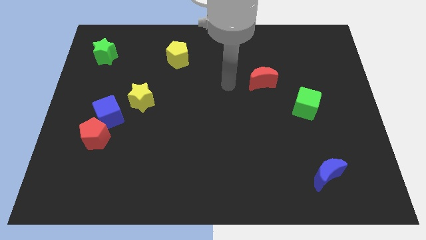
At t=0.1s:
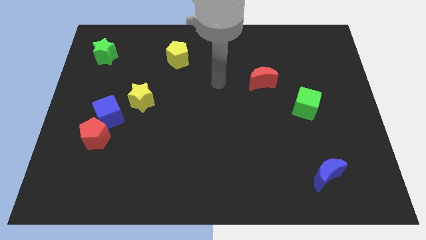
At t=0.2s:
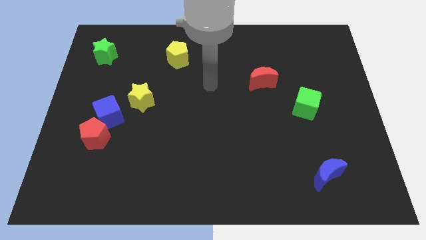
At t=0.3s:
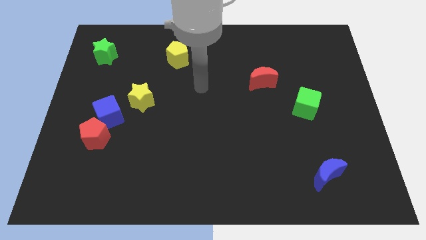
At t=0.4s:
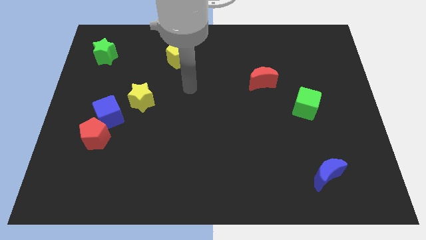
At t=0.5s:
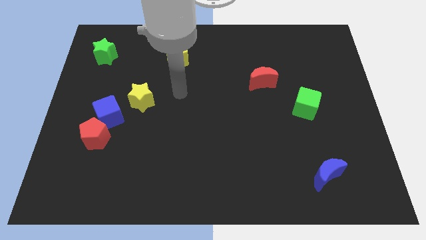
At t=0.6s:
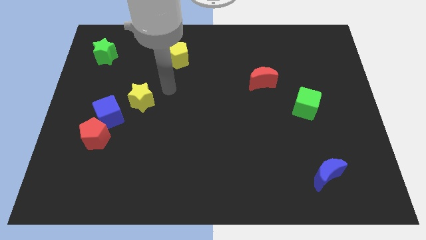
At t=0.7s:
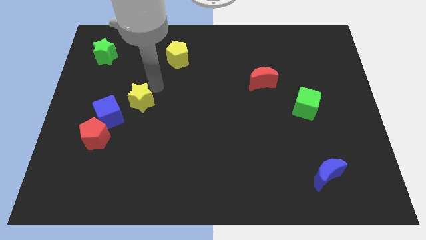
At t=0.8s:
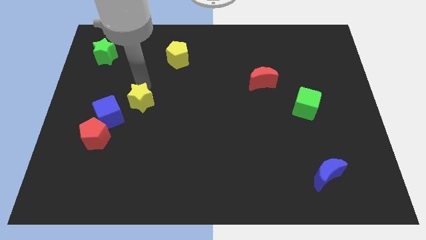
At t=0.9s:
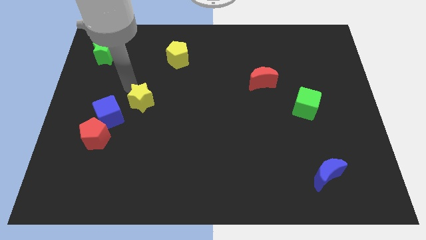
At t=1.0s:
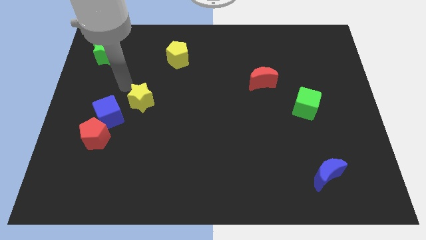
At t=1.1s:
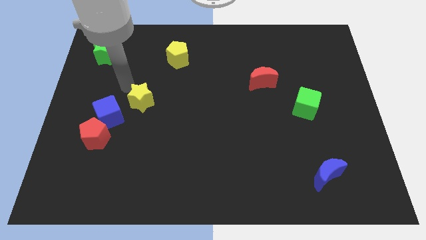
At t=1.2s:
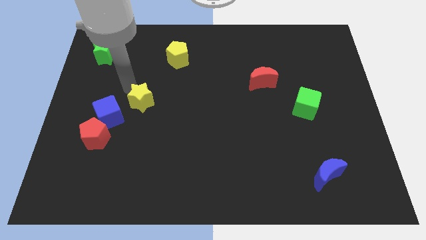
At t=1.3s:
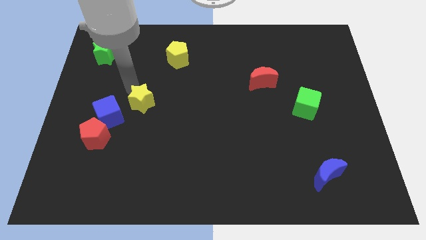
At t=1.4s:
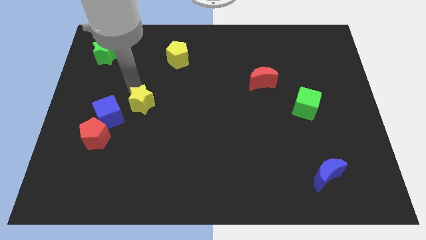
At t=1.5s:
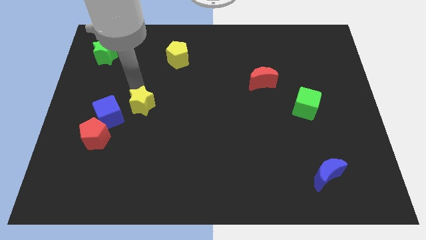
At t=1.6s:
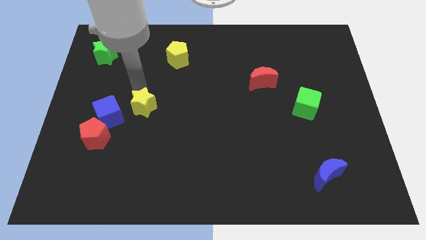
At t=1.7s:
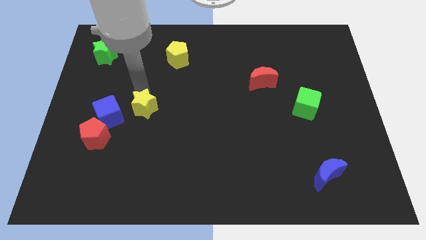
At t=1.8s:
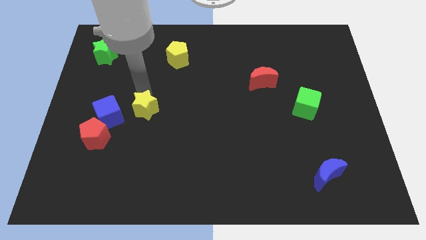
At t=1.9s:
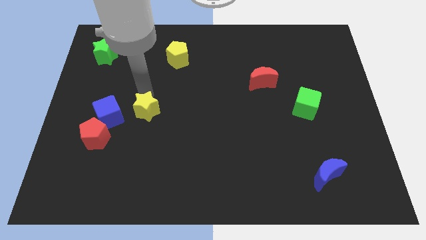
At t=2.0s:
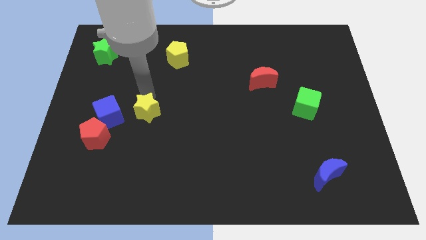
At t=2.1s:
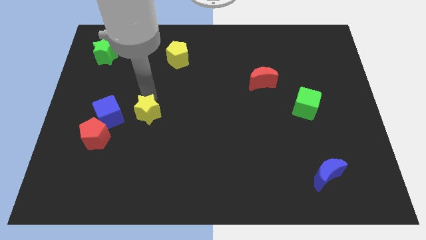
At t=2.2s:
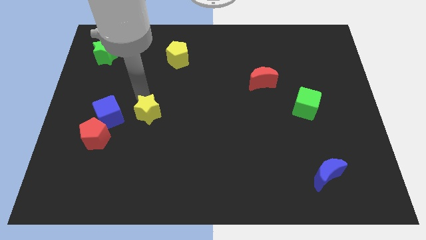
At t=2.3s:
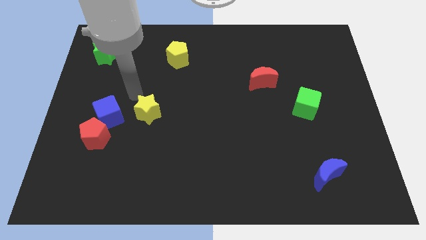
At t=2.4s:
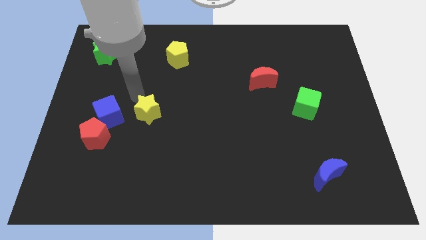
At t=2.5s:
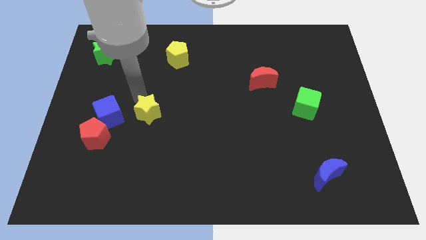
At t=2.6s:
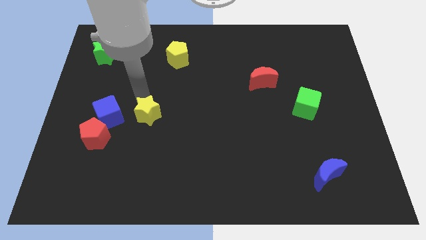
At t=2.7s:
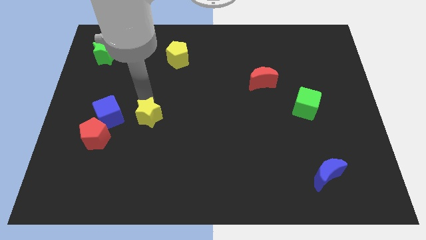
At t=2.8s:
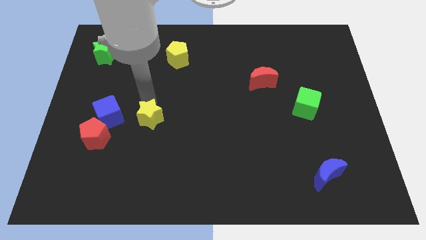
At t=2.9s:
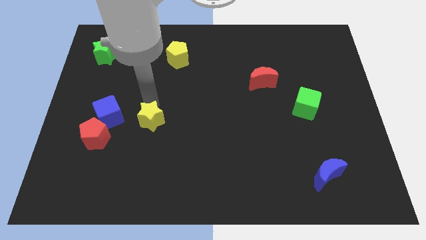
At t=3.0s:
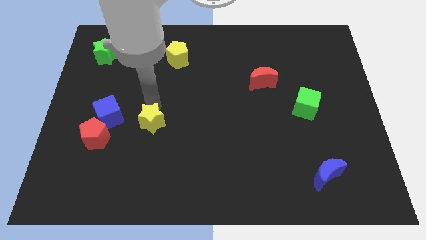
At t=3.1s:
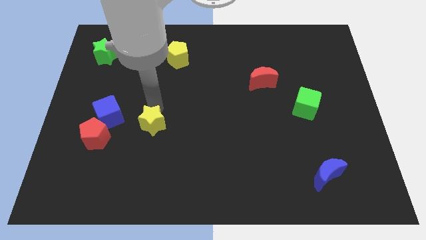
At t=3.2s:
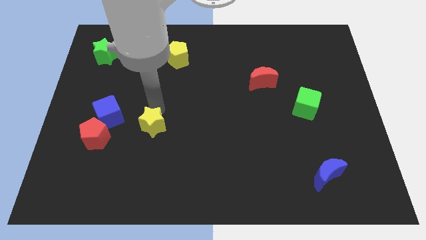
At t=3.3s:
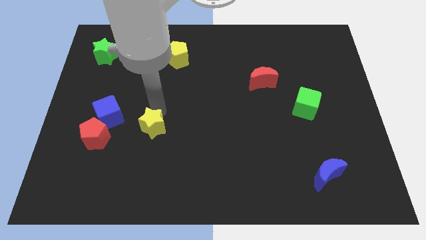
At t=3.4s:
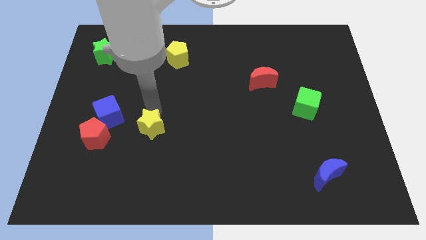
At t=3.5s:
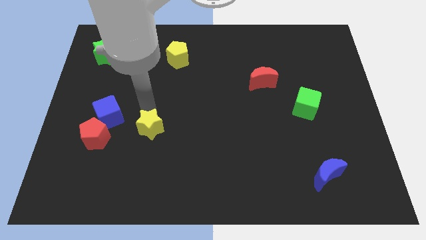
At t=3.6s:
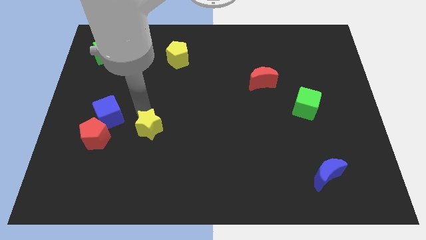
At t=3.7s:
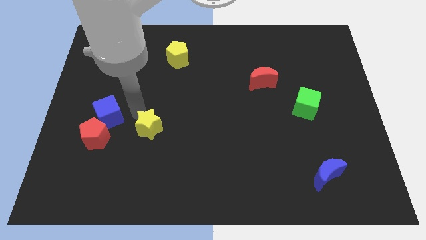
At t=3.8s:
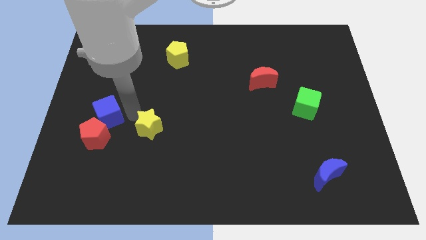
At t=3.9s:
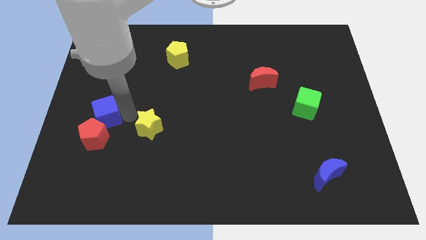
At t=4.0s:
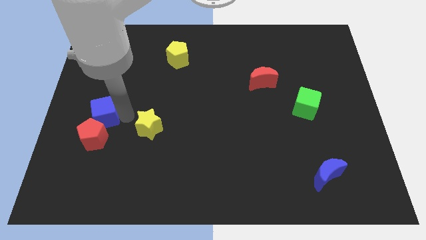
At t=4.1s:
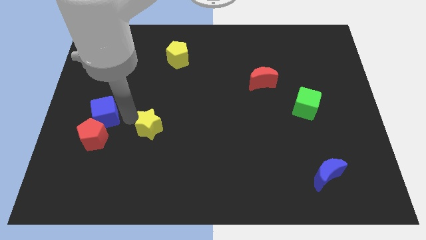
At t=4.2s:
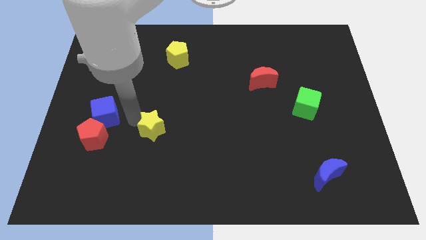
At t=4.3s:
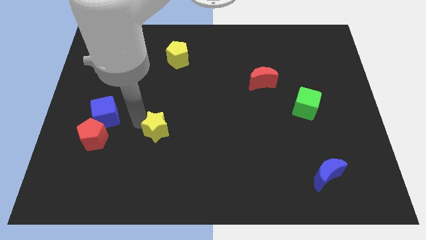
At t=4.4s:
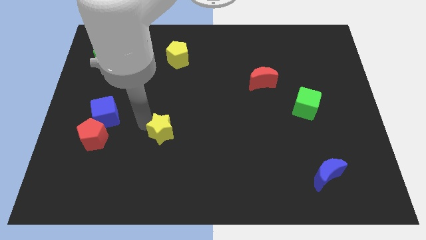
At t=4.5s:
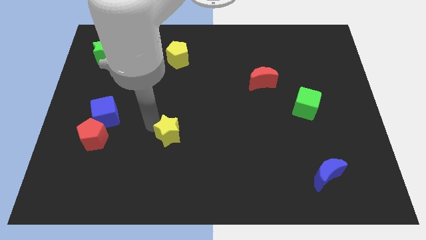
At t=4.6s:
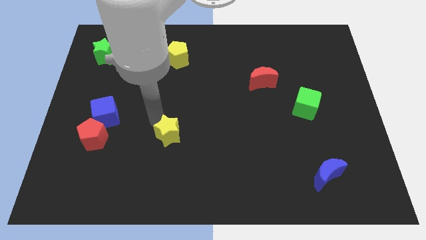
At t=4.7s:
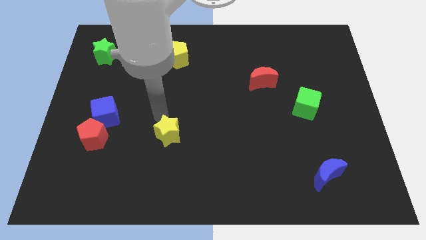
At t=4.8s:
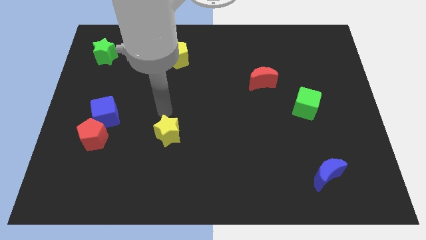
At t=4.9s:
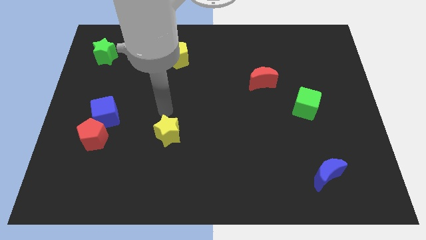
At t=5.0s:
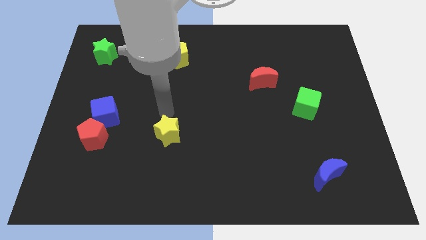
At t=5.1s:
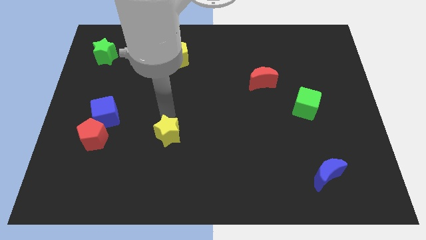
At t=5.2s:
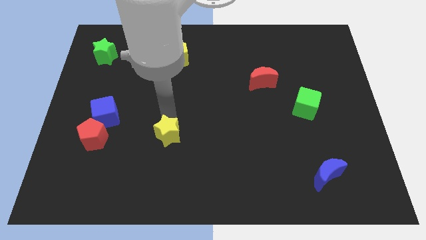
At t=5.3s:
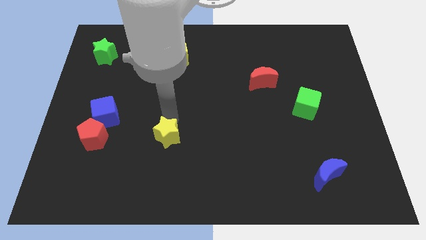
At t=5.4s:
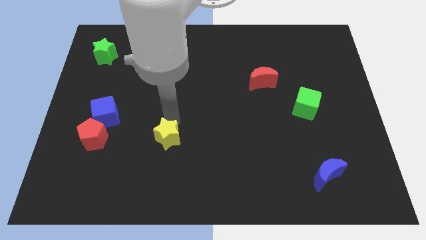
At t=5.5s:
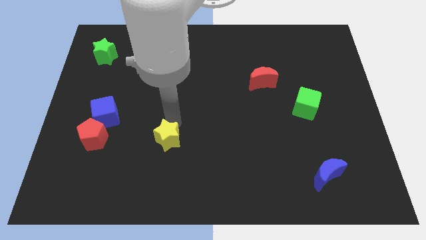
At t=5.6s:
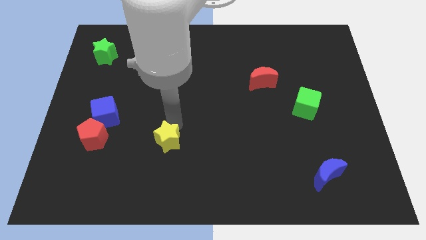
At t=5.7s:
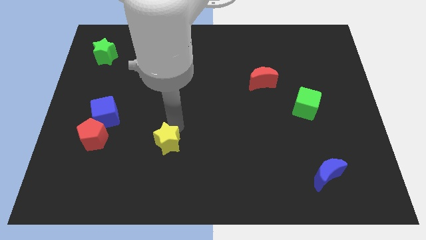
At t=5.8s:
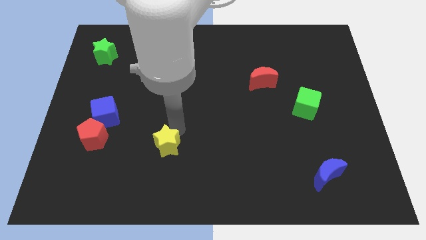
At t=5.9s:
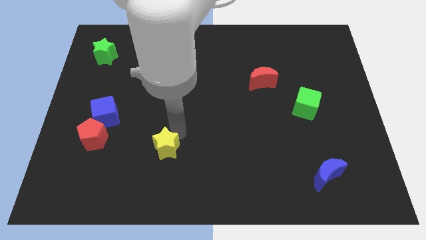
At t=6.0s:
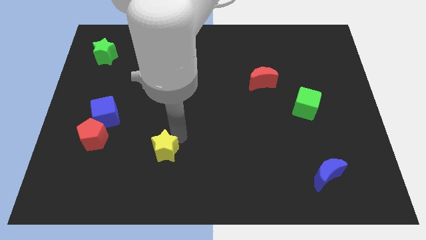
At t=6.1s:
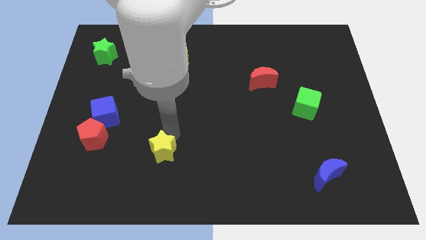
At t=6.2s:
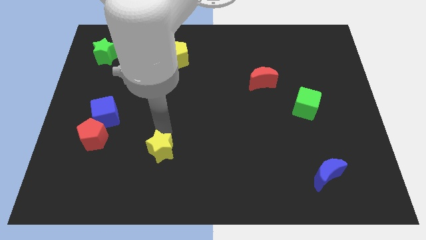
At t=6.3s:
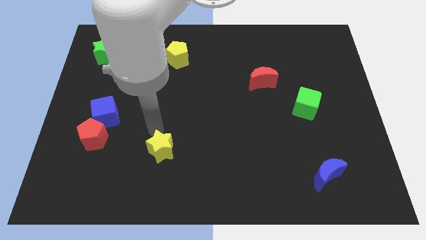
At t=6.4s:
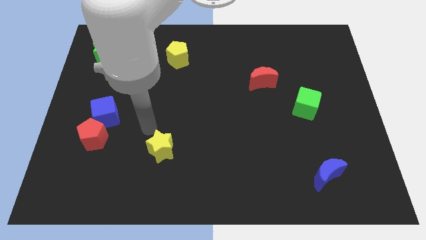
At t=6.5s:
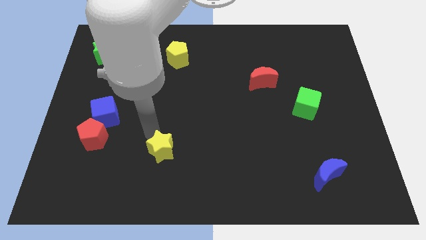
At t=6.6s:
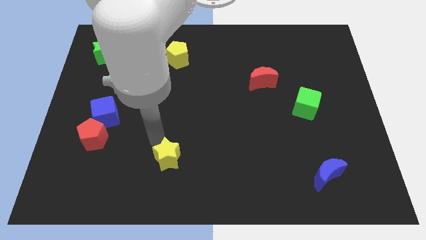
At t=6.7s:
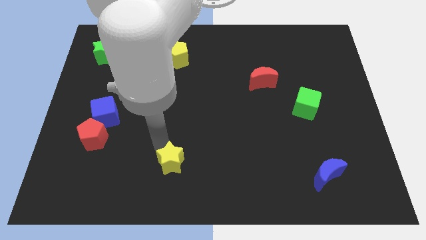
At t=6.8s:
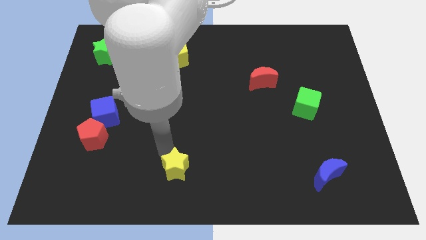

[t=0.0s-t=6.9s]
move the yellow star to the bottom
